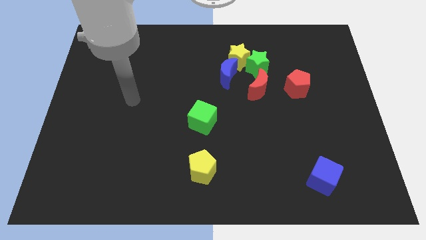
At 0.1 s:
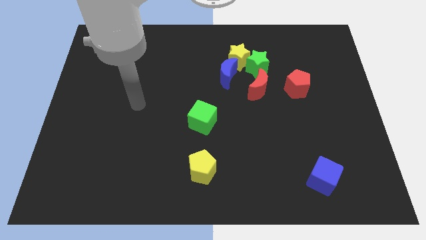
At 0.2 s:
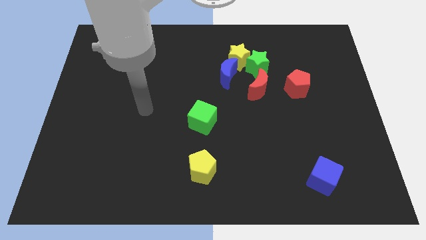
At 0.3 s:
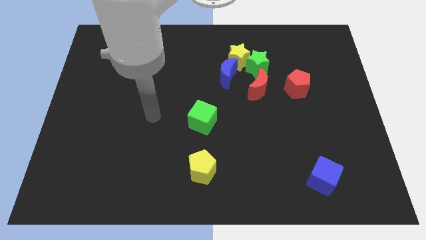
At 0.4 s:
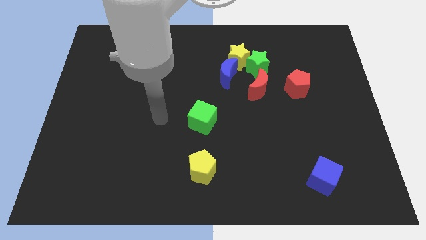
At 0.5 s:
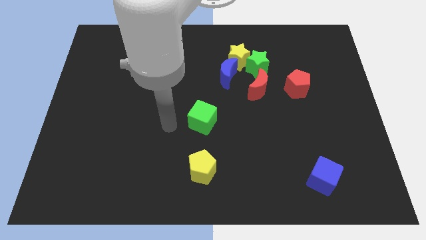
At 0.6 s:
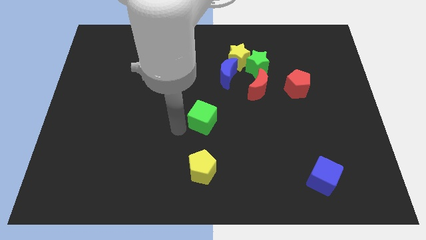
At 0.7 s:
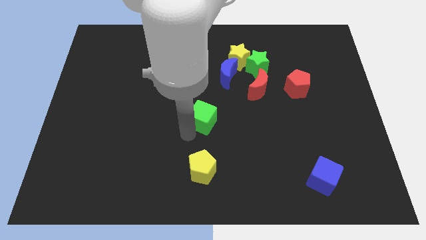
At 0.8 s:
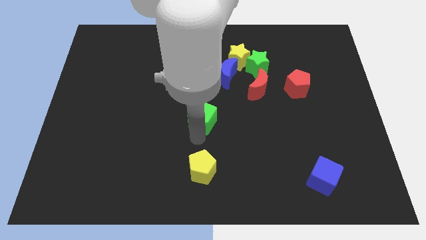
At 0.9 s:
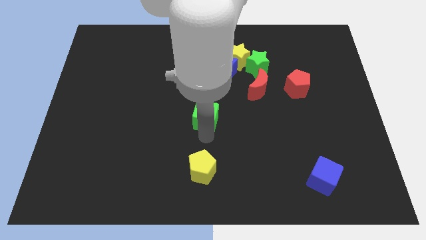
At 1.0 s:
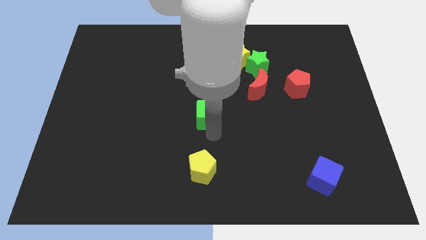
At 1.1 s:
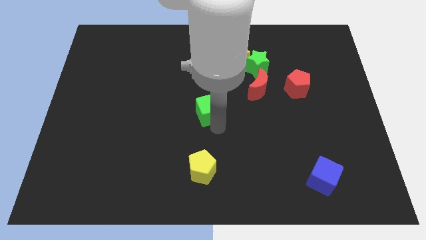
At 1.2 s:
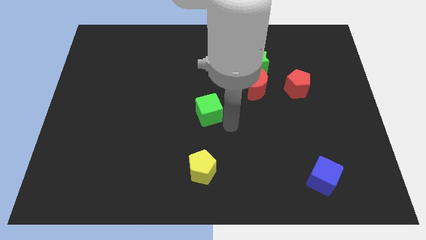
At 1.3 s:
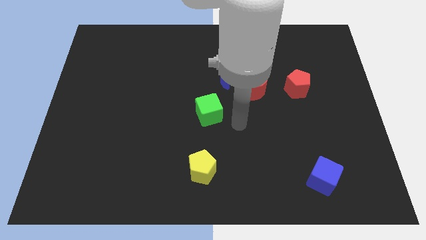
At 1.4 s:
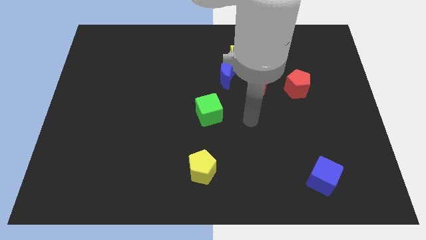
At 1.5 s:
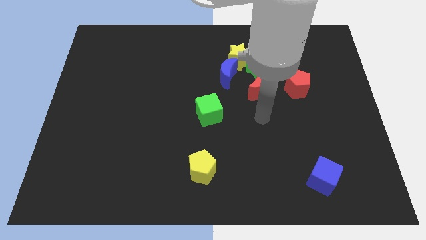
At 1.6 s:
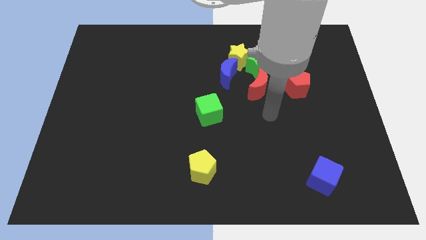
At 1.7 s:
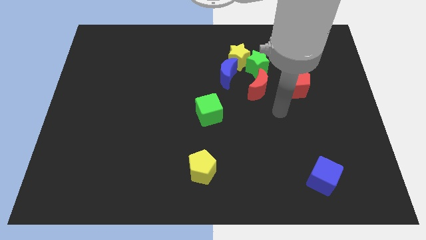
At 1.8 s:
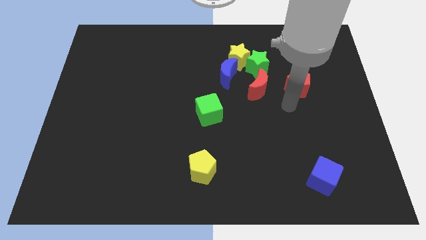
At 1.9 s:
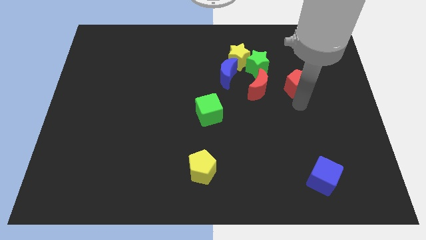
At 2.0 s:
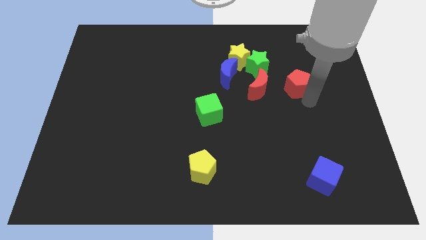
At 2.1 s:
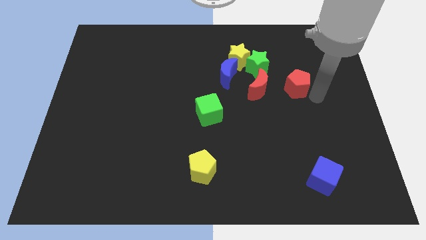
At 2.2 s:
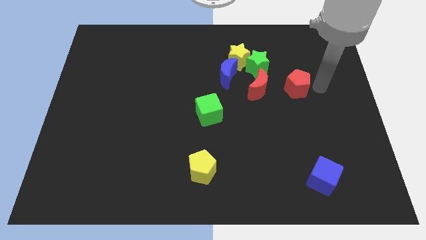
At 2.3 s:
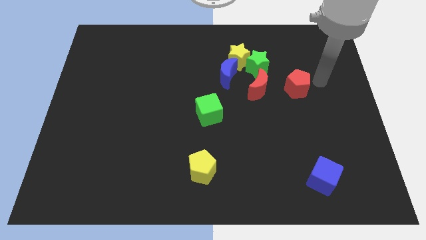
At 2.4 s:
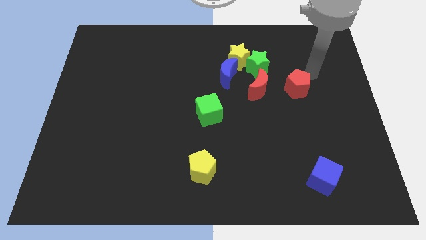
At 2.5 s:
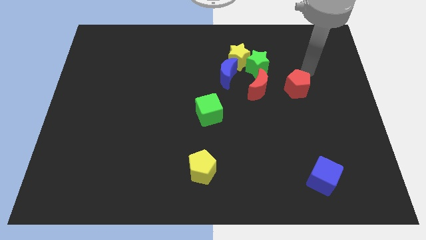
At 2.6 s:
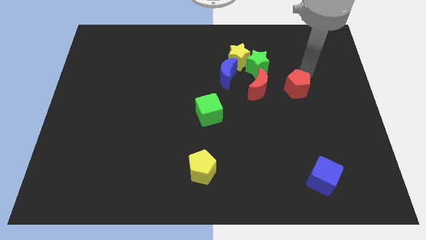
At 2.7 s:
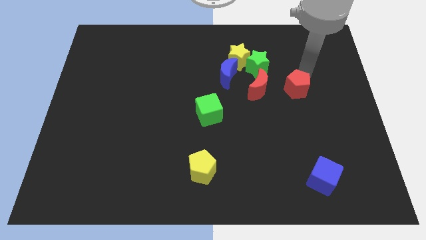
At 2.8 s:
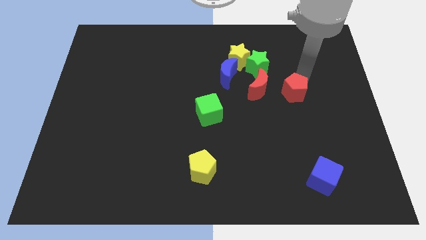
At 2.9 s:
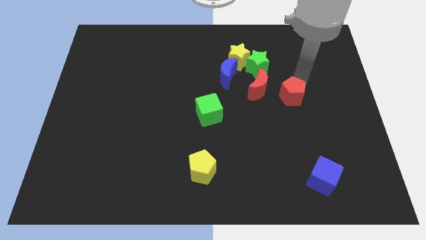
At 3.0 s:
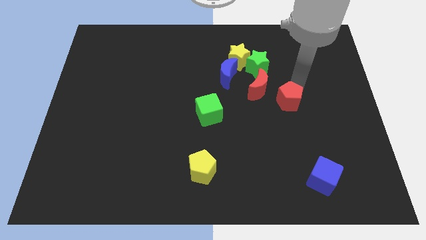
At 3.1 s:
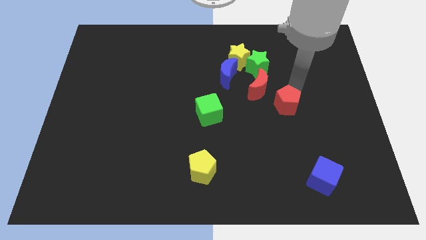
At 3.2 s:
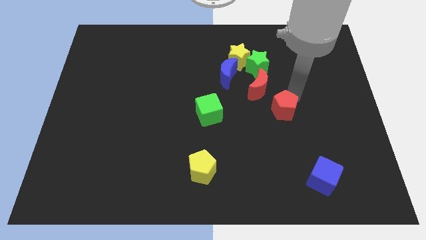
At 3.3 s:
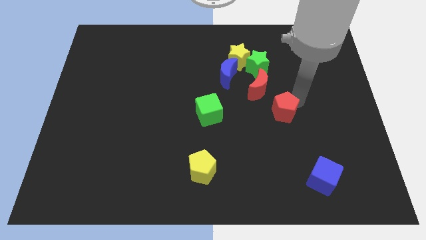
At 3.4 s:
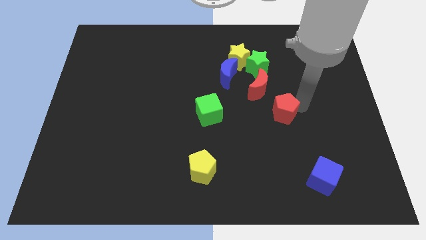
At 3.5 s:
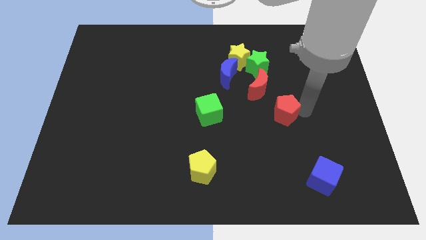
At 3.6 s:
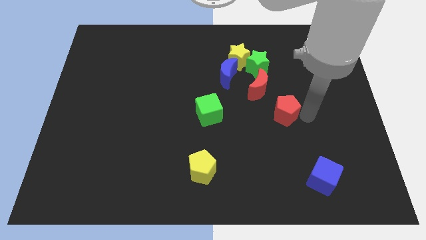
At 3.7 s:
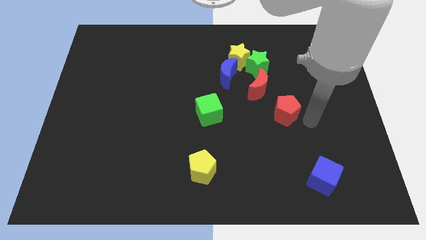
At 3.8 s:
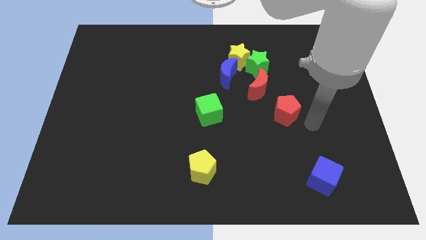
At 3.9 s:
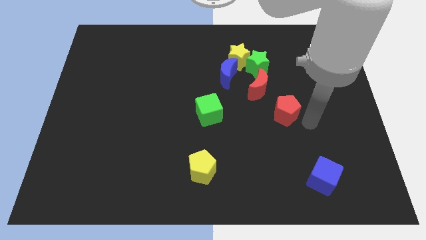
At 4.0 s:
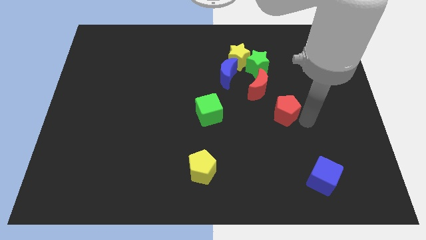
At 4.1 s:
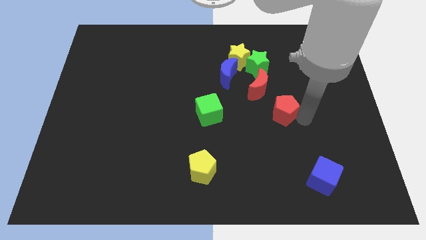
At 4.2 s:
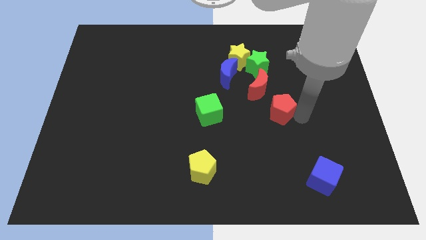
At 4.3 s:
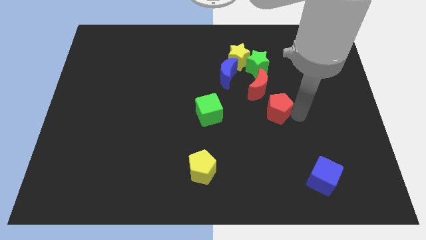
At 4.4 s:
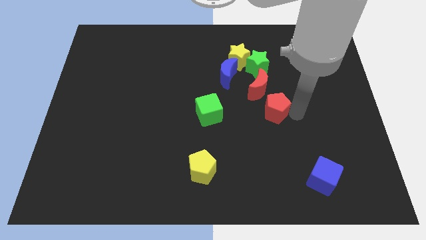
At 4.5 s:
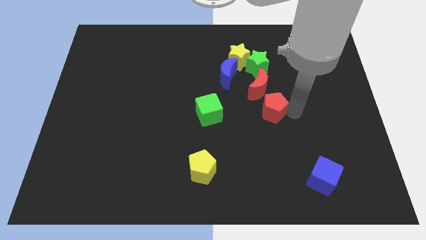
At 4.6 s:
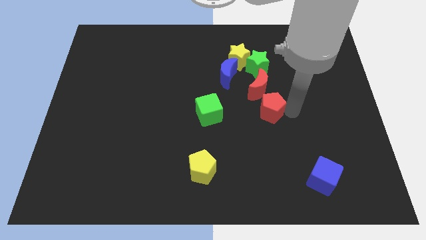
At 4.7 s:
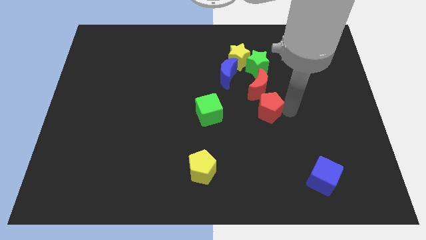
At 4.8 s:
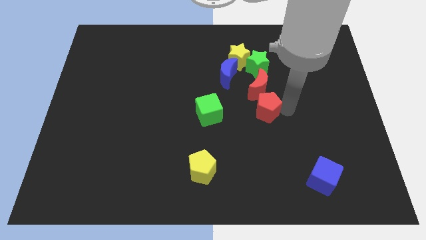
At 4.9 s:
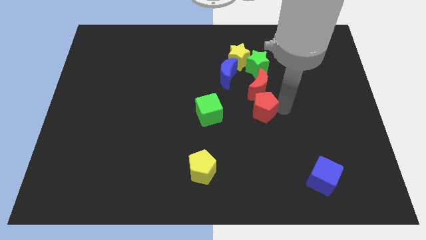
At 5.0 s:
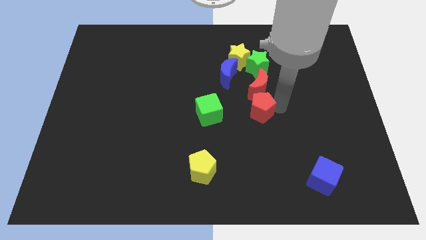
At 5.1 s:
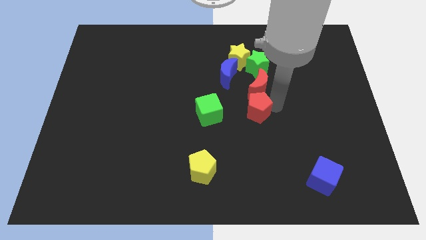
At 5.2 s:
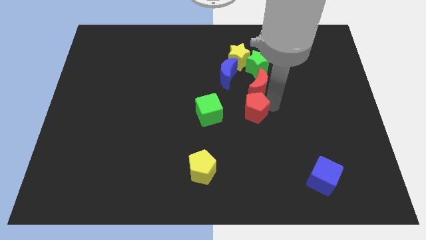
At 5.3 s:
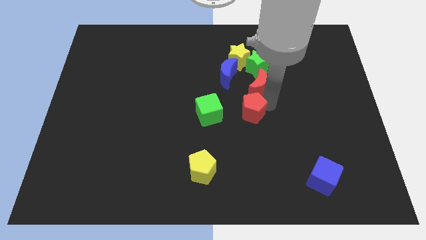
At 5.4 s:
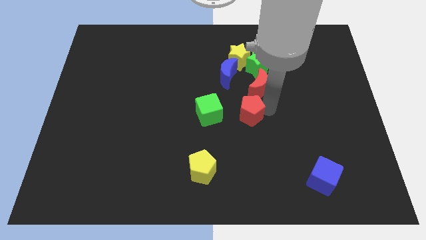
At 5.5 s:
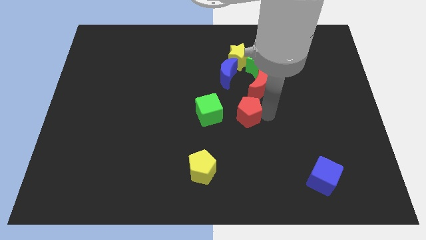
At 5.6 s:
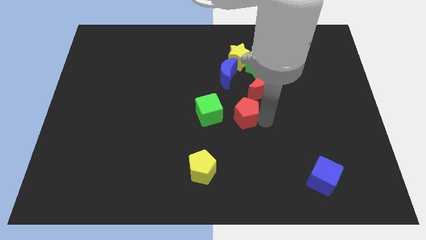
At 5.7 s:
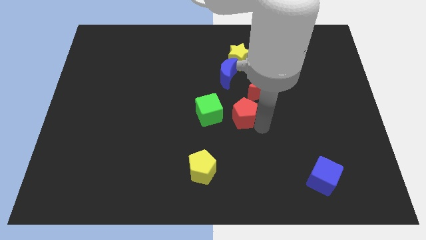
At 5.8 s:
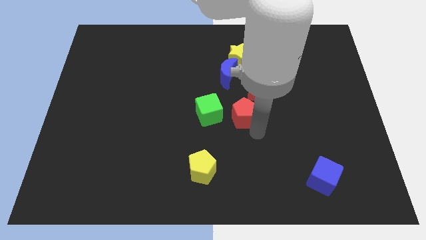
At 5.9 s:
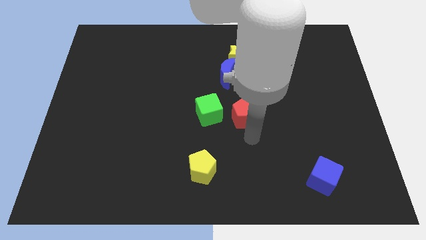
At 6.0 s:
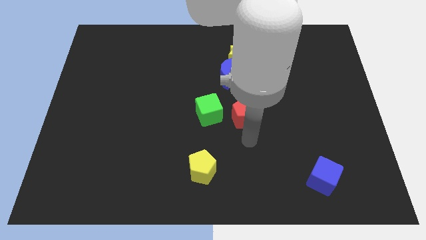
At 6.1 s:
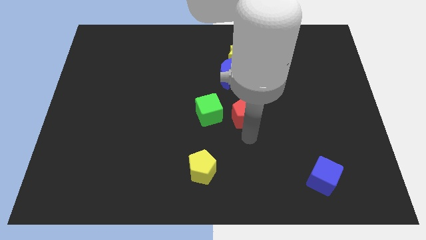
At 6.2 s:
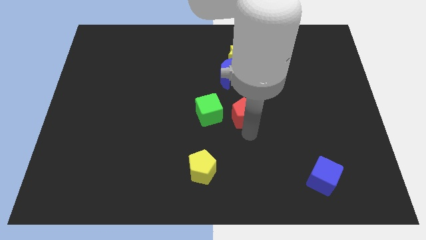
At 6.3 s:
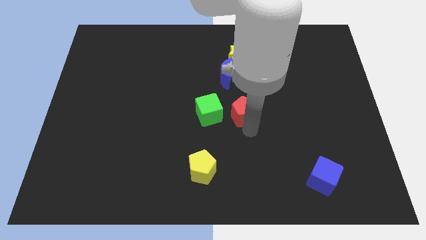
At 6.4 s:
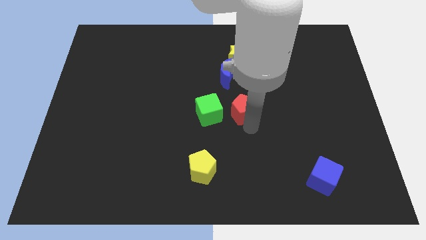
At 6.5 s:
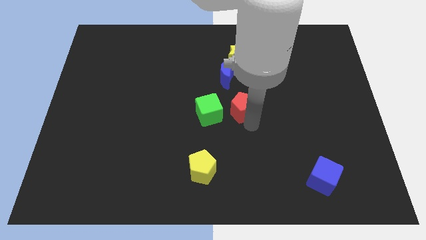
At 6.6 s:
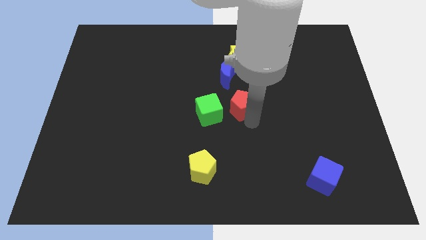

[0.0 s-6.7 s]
move the red pentagon below the yellow star

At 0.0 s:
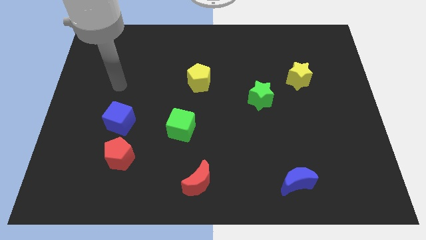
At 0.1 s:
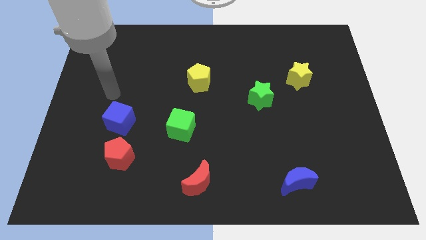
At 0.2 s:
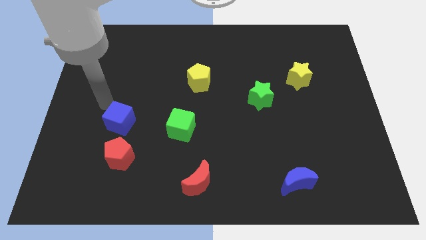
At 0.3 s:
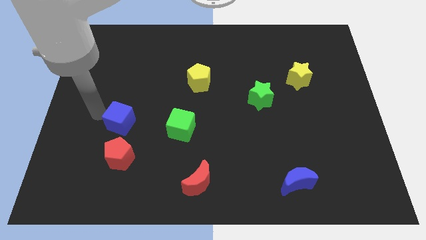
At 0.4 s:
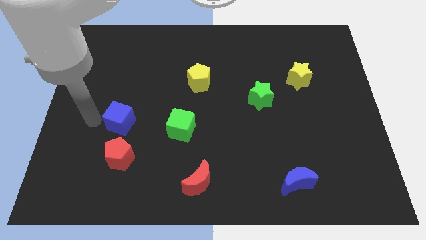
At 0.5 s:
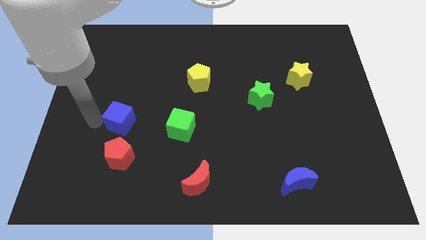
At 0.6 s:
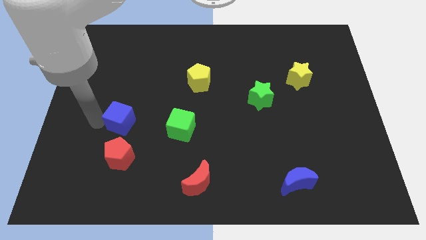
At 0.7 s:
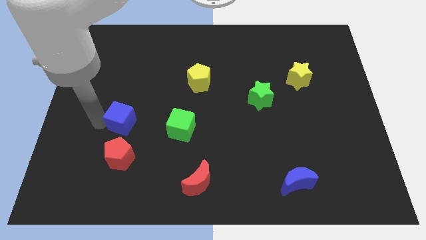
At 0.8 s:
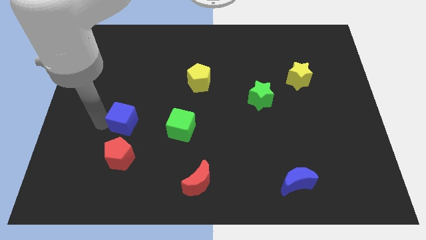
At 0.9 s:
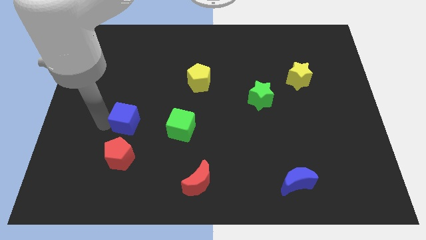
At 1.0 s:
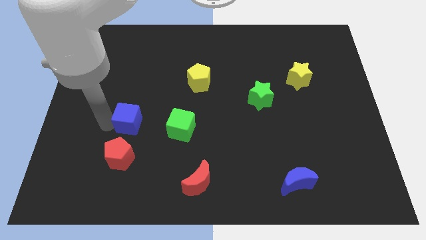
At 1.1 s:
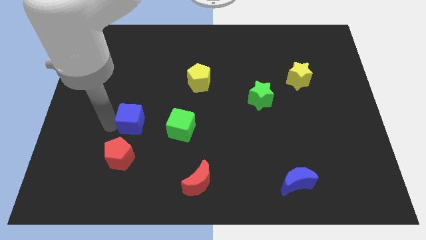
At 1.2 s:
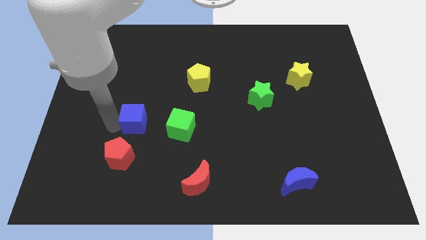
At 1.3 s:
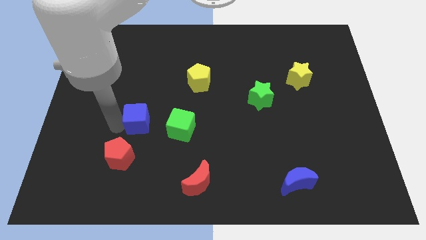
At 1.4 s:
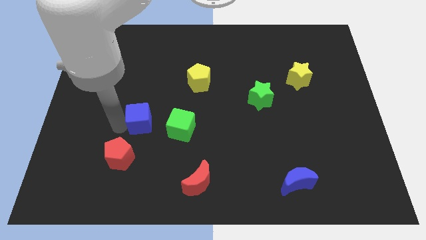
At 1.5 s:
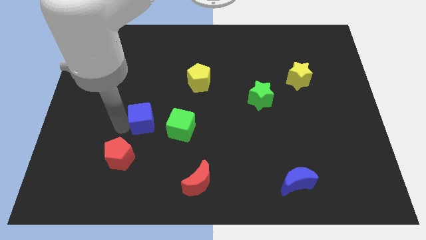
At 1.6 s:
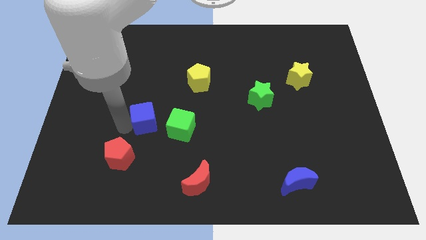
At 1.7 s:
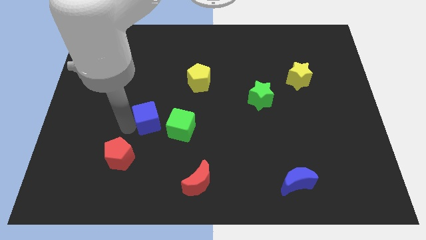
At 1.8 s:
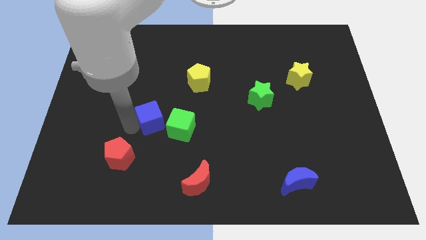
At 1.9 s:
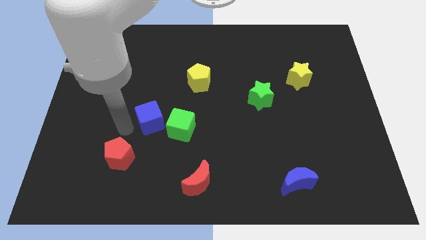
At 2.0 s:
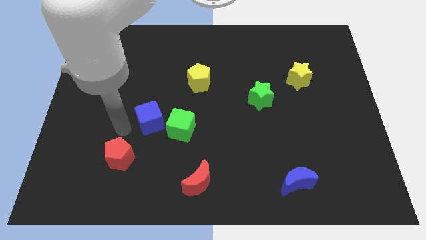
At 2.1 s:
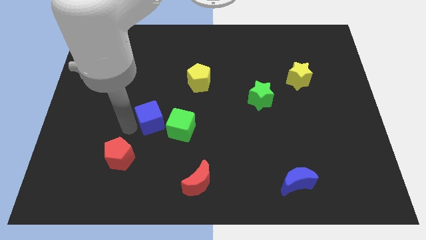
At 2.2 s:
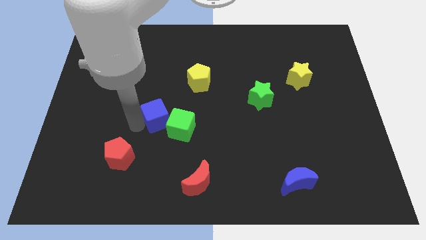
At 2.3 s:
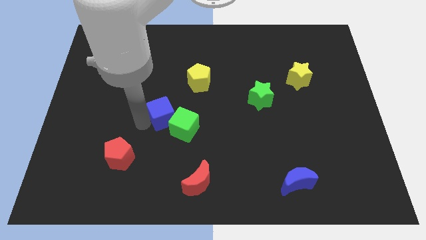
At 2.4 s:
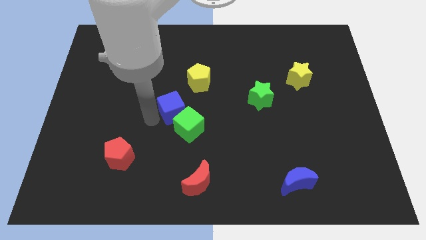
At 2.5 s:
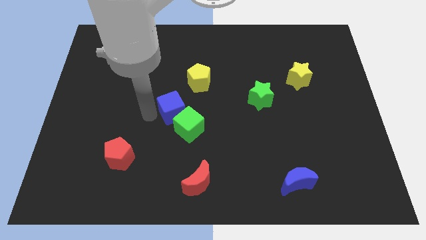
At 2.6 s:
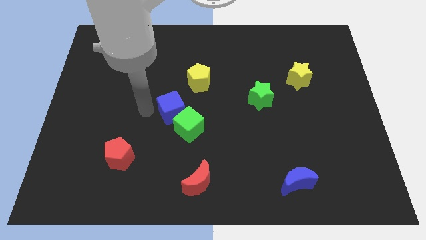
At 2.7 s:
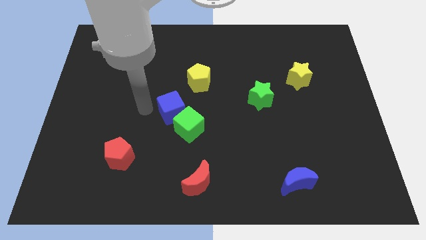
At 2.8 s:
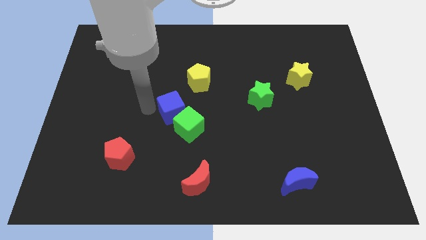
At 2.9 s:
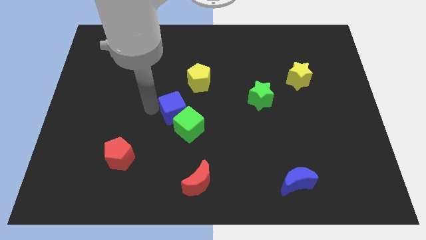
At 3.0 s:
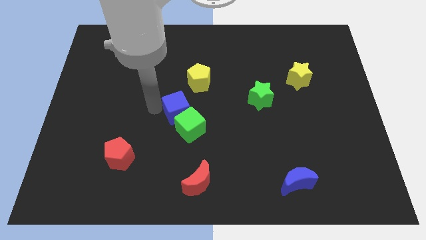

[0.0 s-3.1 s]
put the blue cube to the bottom of the yellow pentagon
